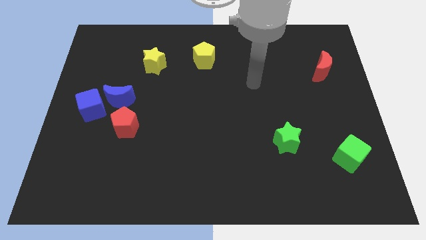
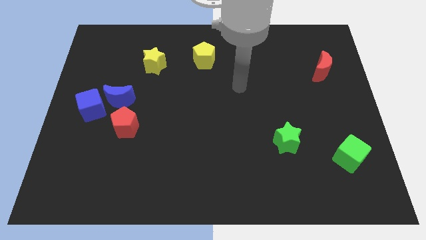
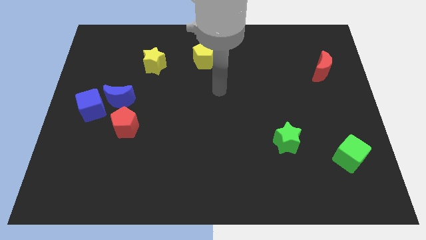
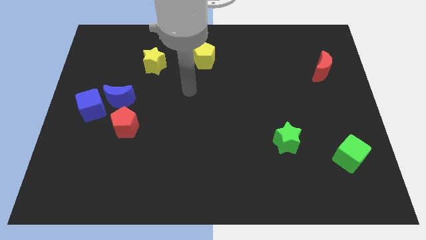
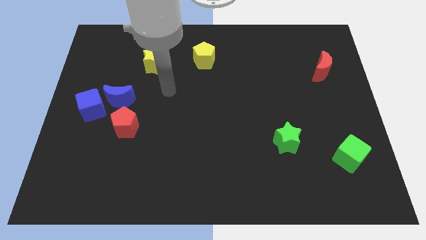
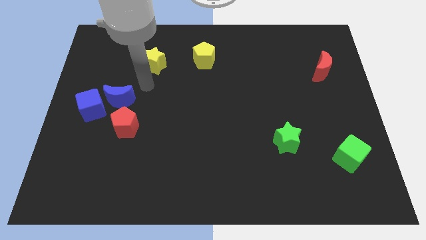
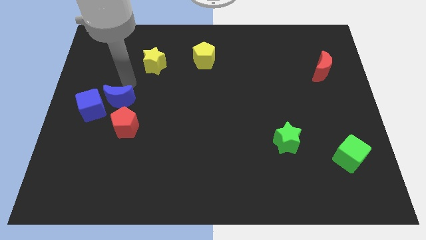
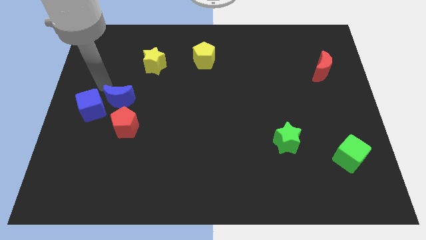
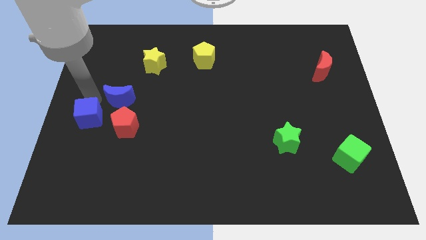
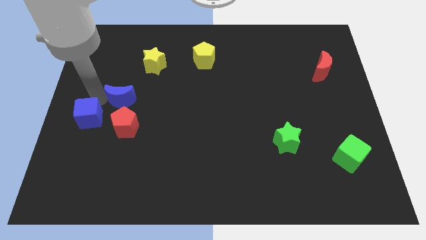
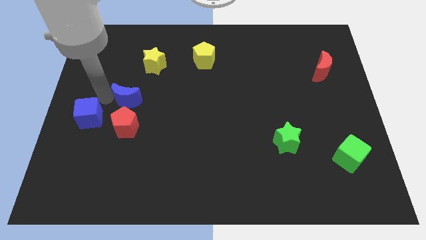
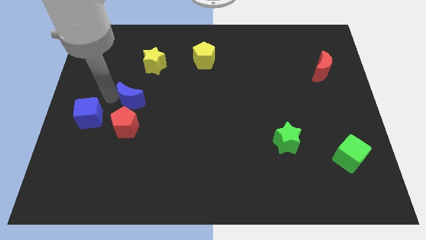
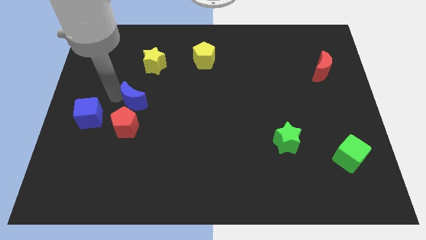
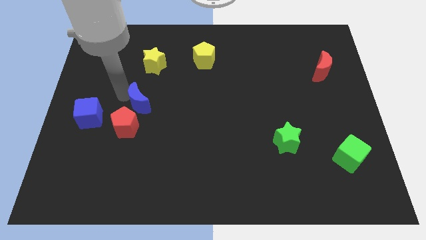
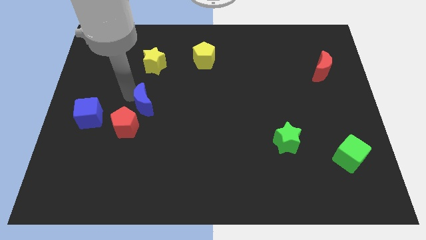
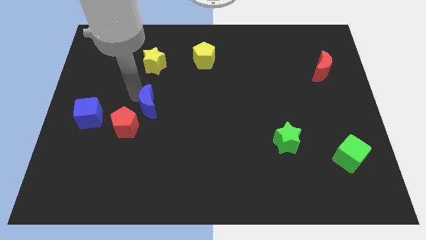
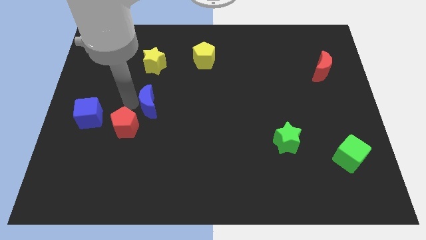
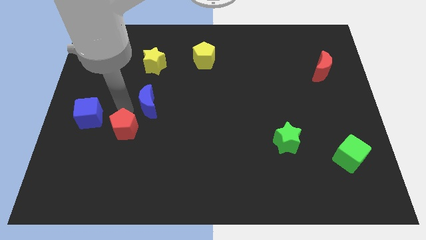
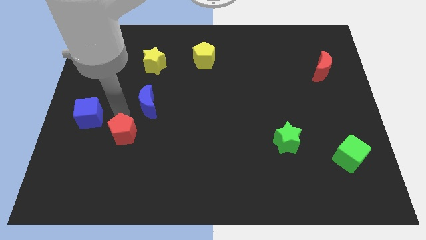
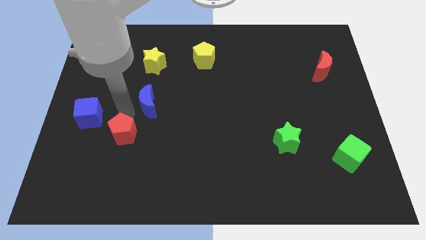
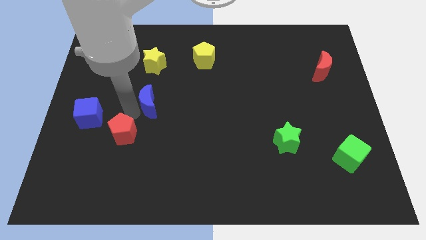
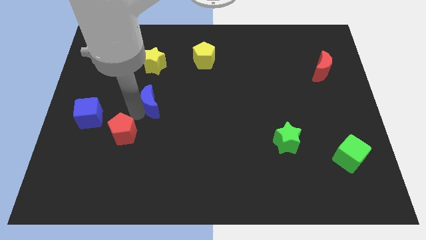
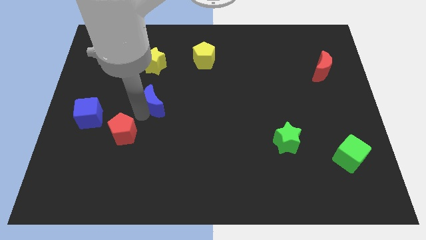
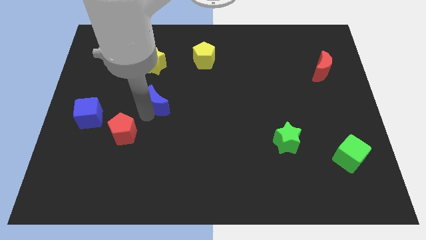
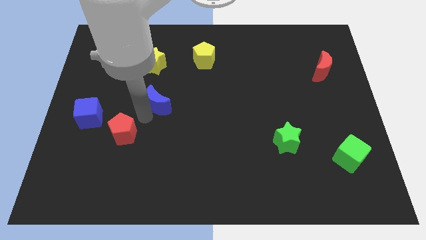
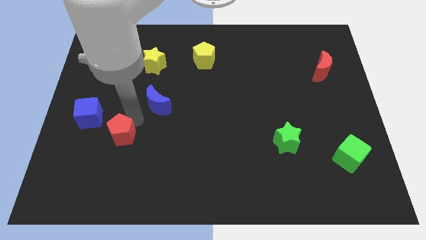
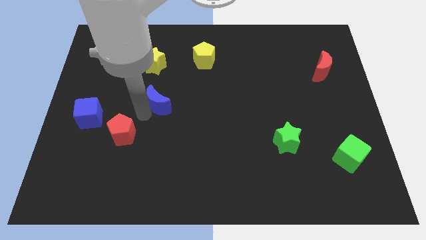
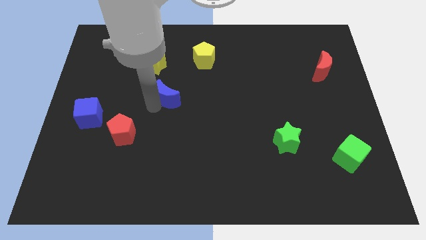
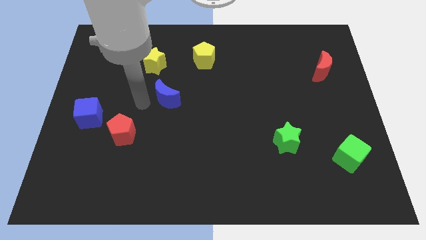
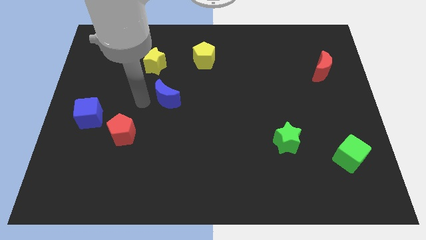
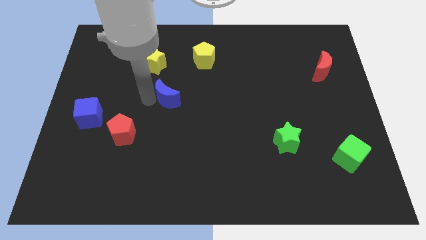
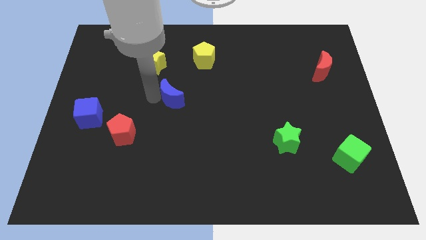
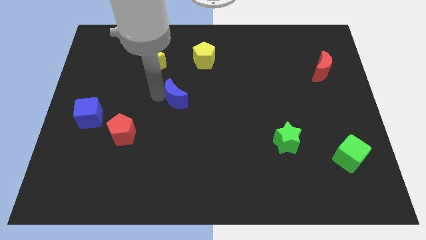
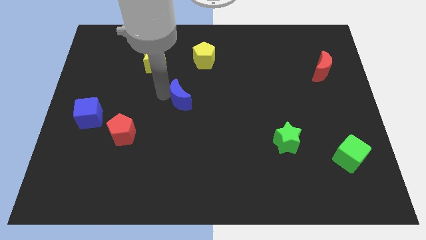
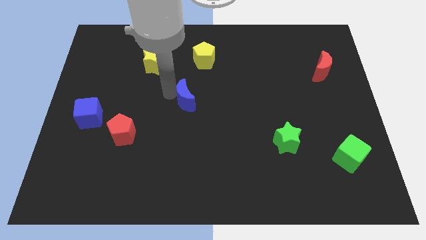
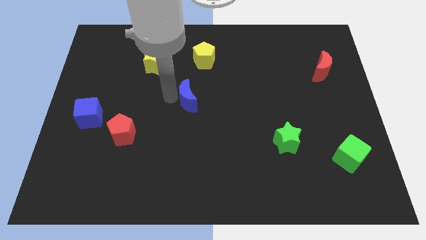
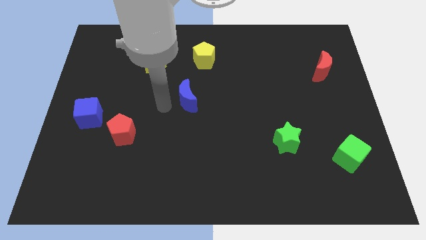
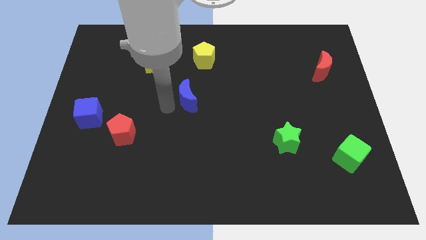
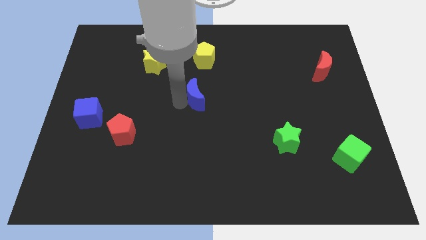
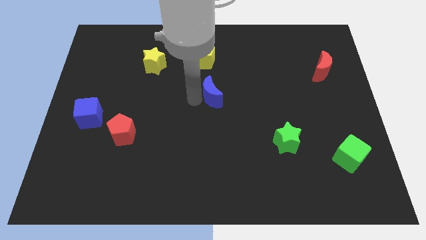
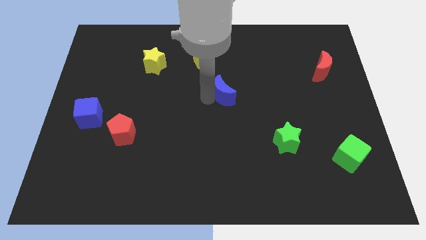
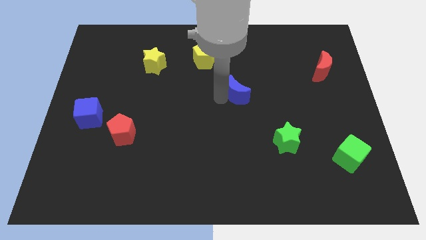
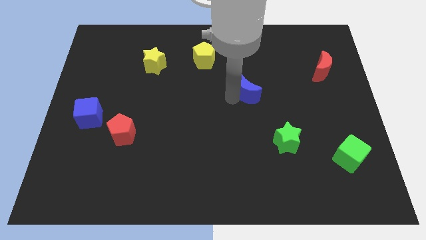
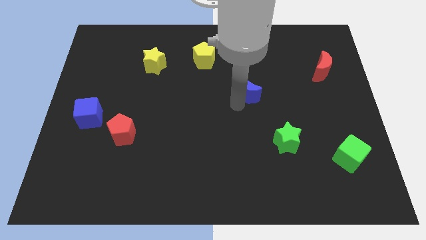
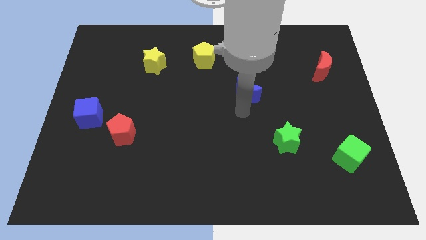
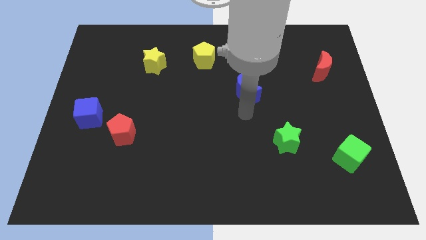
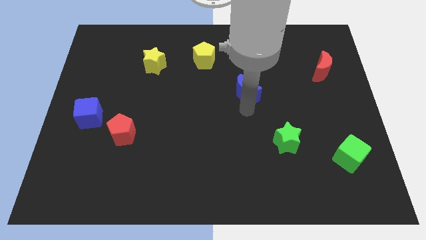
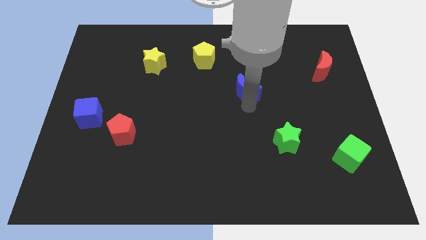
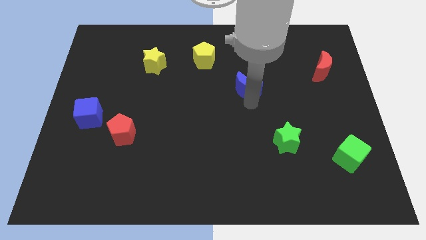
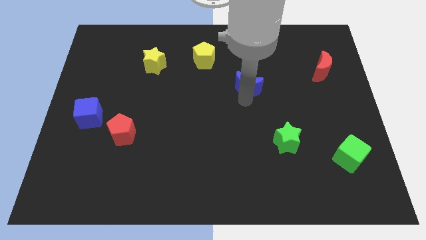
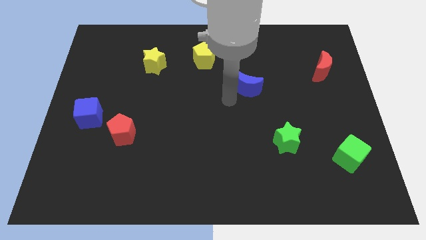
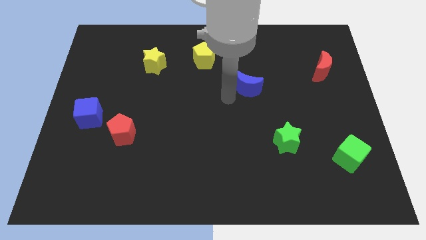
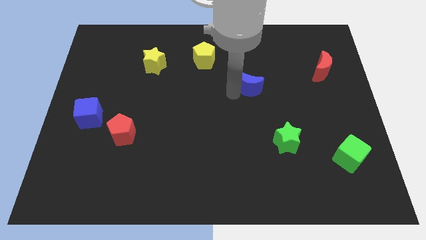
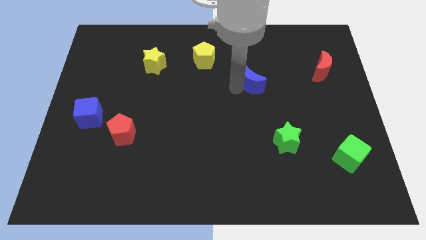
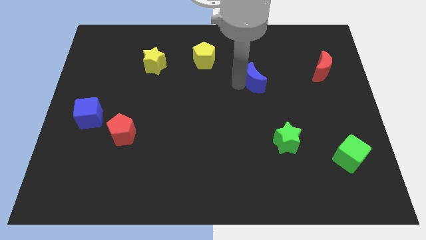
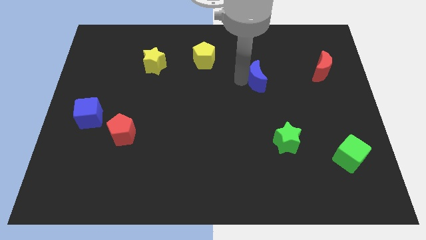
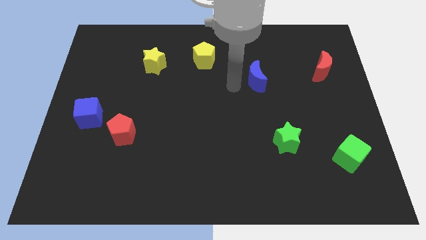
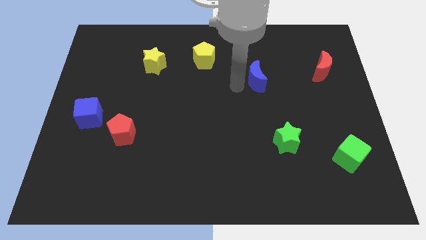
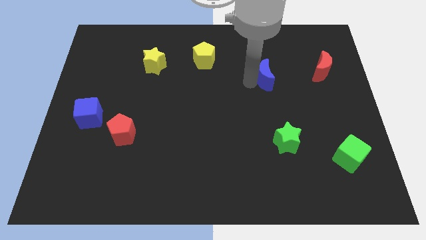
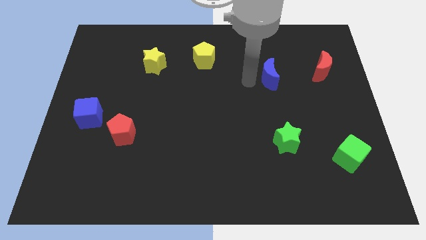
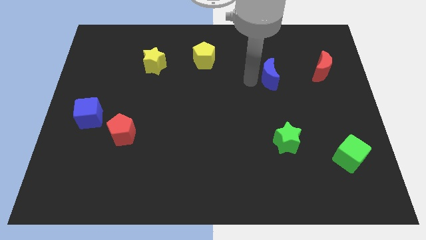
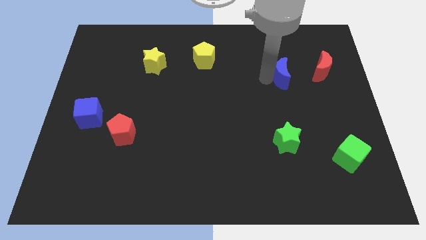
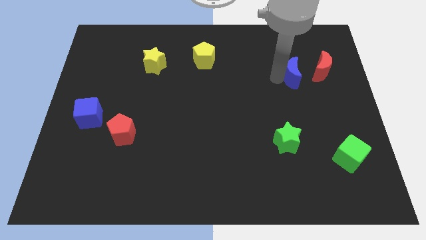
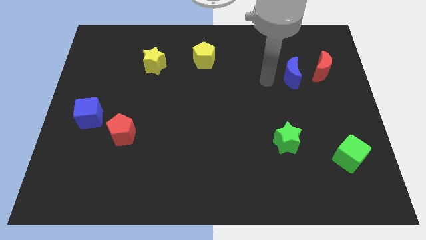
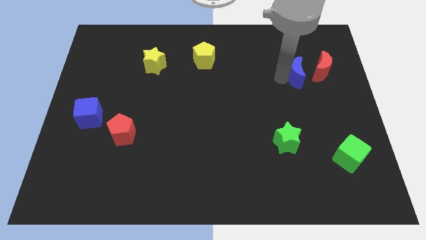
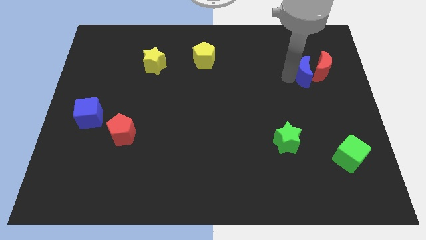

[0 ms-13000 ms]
slide the blue moon close to the red moon
